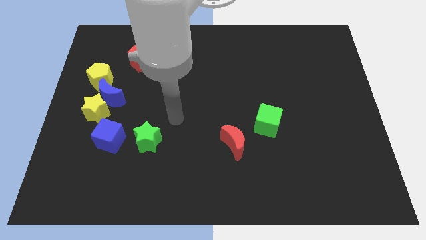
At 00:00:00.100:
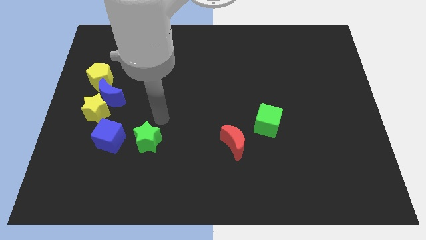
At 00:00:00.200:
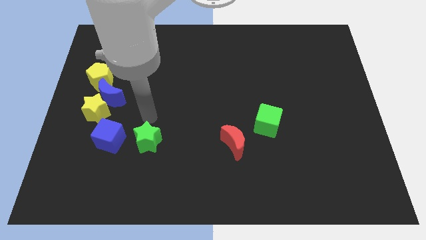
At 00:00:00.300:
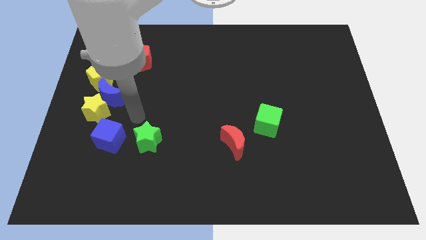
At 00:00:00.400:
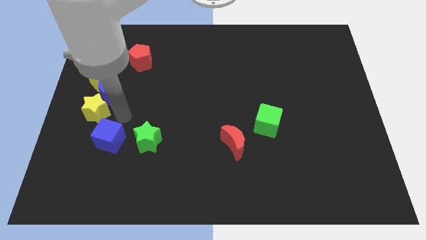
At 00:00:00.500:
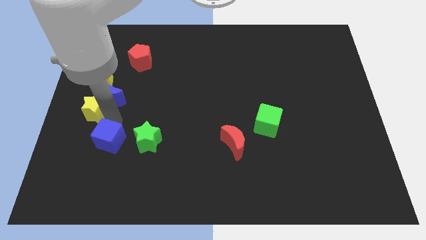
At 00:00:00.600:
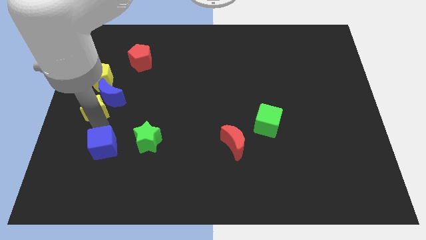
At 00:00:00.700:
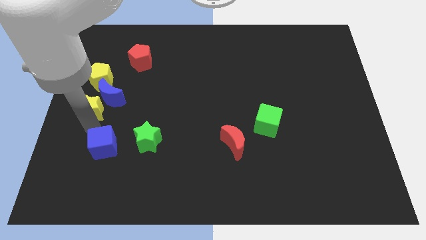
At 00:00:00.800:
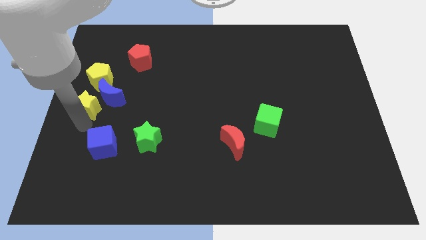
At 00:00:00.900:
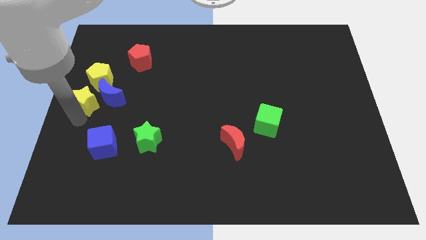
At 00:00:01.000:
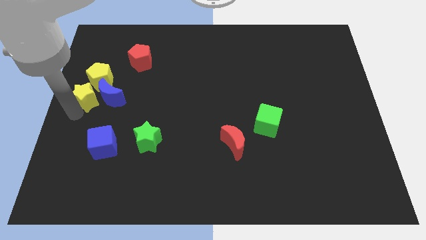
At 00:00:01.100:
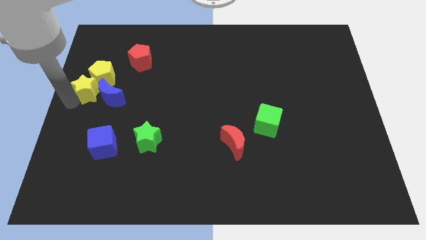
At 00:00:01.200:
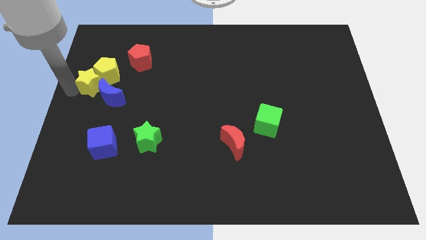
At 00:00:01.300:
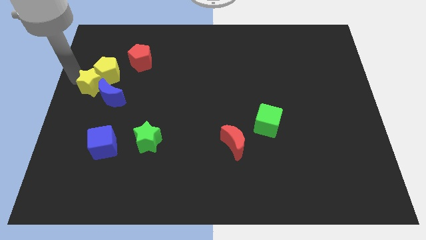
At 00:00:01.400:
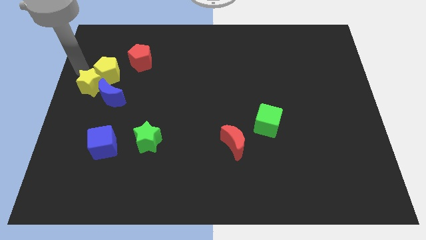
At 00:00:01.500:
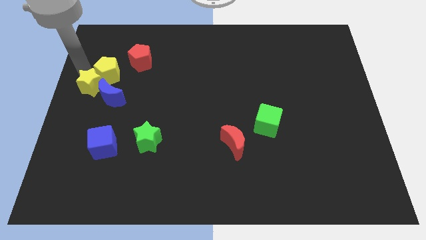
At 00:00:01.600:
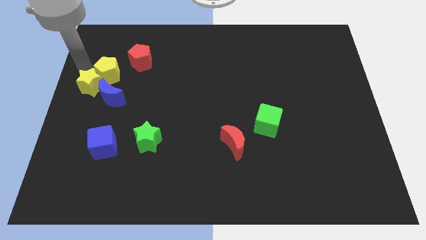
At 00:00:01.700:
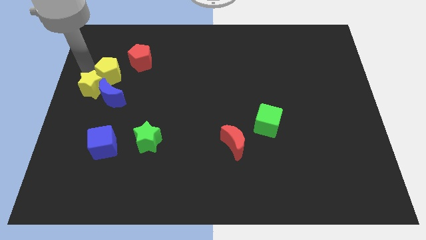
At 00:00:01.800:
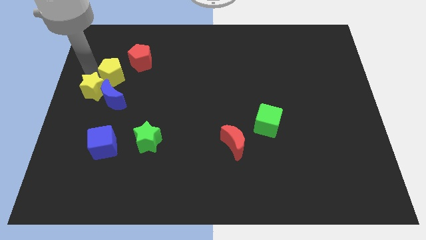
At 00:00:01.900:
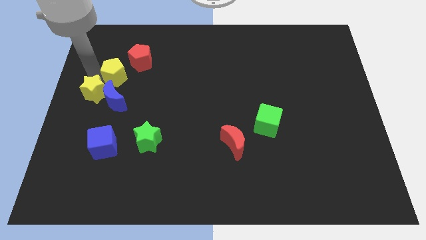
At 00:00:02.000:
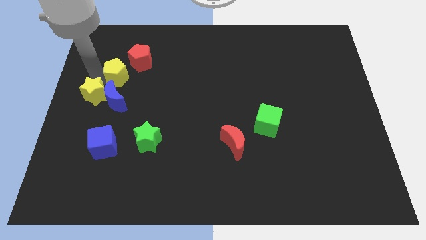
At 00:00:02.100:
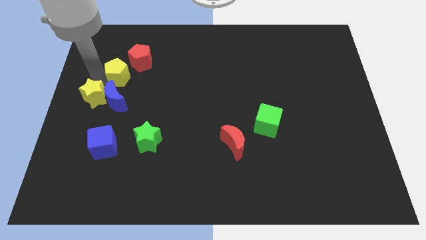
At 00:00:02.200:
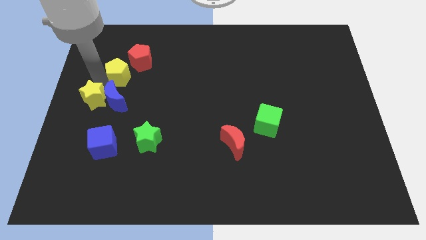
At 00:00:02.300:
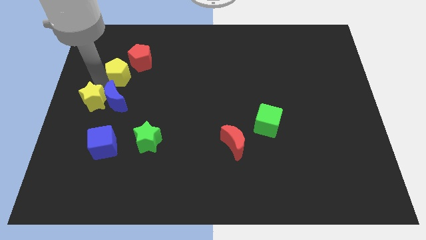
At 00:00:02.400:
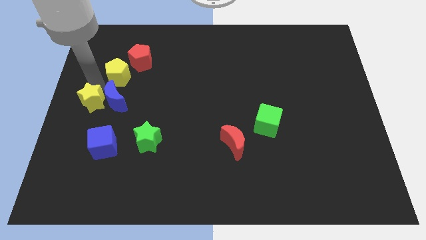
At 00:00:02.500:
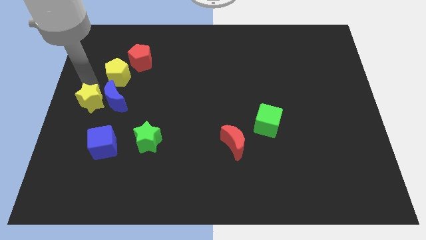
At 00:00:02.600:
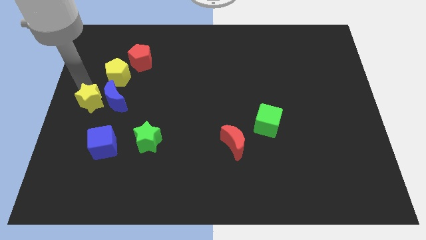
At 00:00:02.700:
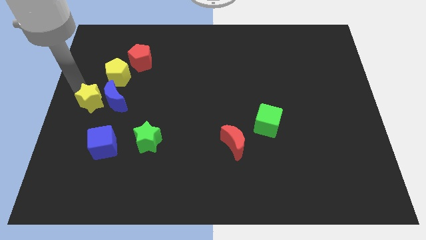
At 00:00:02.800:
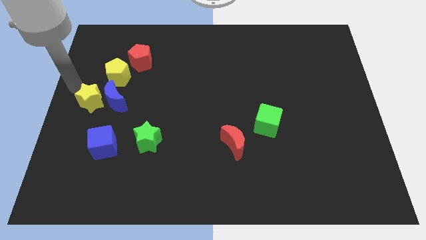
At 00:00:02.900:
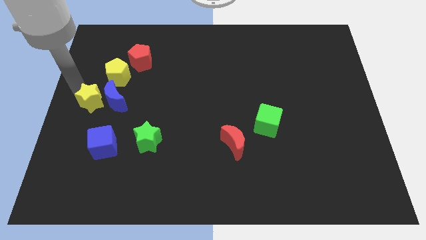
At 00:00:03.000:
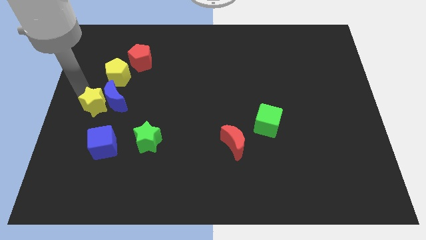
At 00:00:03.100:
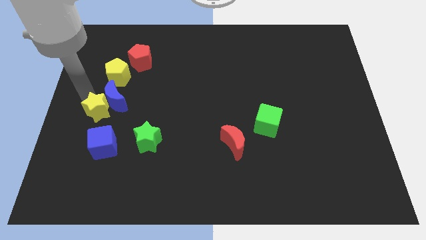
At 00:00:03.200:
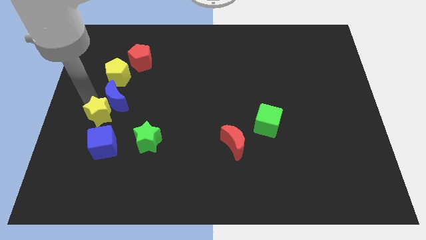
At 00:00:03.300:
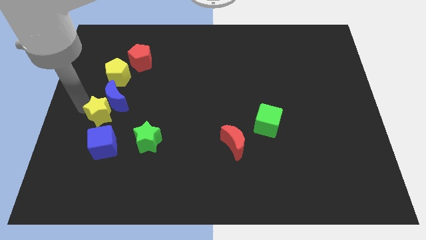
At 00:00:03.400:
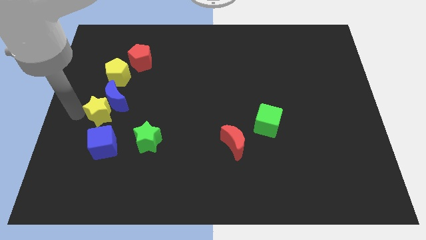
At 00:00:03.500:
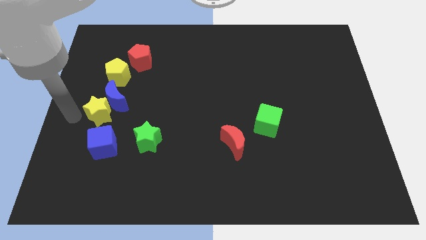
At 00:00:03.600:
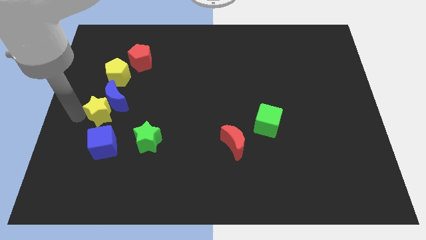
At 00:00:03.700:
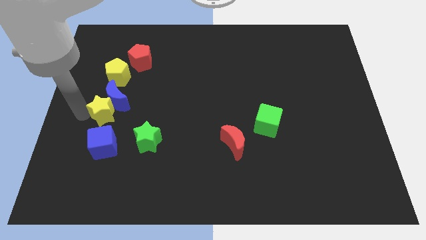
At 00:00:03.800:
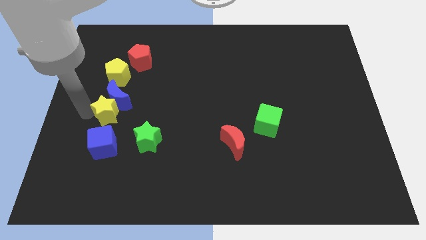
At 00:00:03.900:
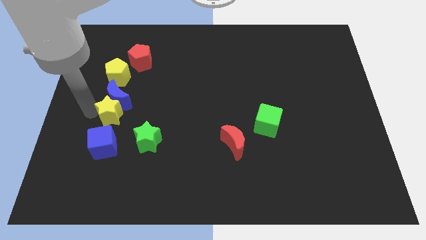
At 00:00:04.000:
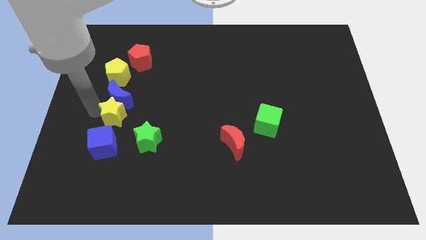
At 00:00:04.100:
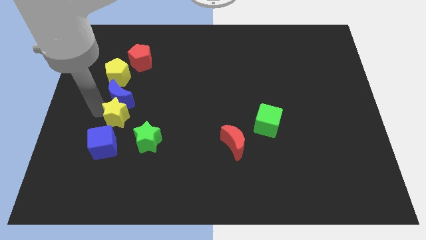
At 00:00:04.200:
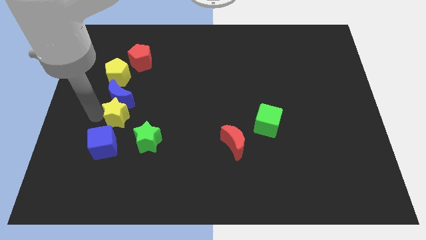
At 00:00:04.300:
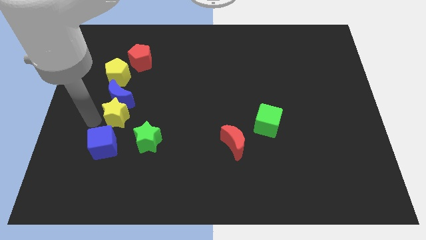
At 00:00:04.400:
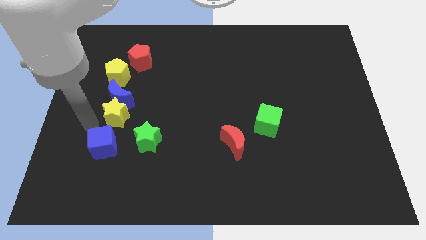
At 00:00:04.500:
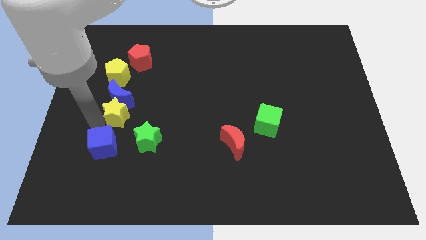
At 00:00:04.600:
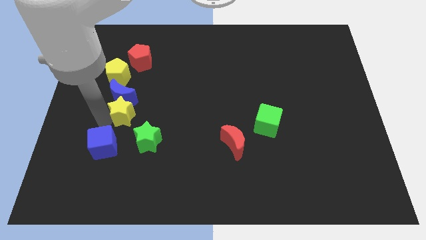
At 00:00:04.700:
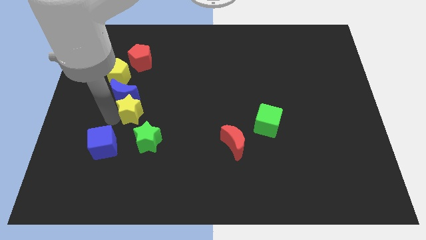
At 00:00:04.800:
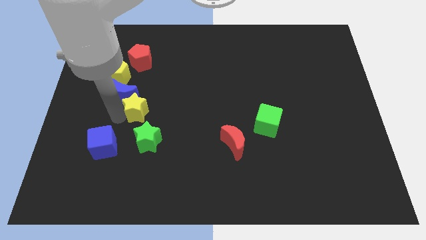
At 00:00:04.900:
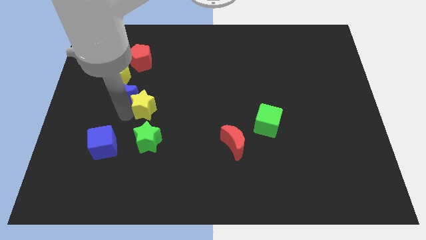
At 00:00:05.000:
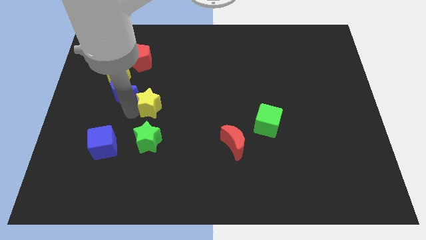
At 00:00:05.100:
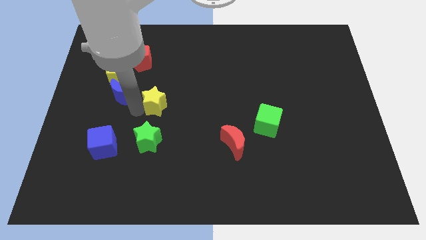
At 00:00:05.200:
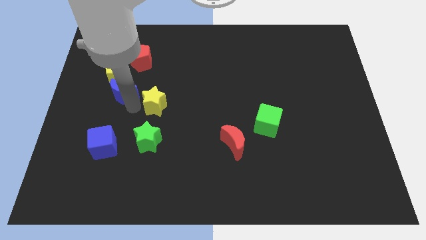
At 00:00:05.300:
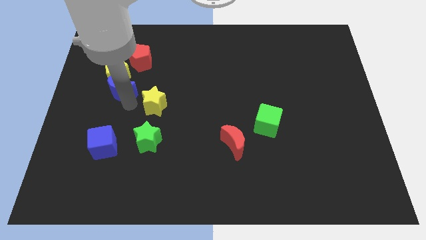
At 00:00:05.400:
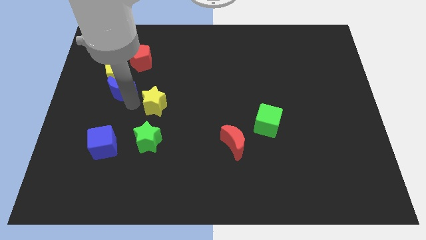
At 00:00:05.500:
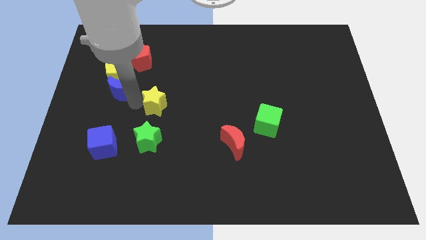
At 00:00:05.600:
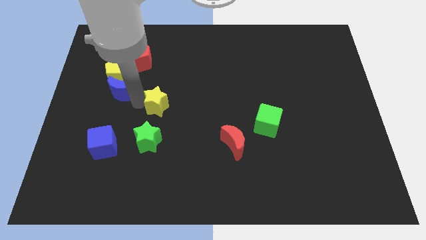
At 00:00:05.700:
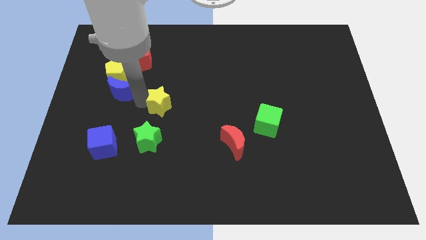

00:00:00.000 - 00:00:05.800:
move the yellow star to the middle
